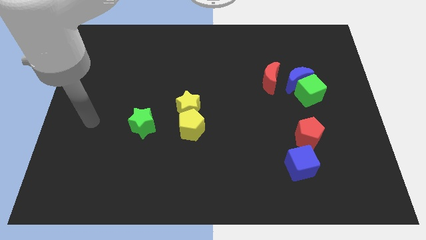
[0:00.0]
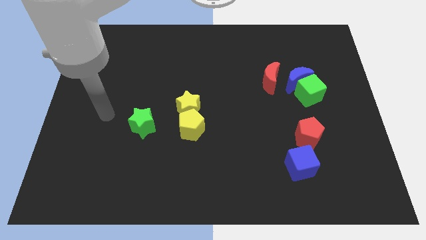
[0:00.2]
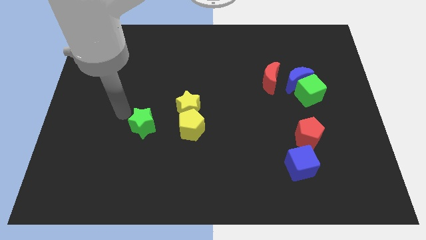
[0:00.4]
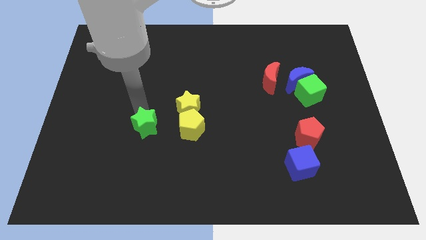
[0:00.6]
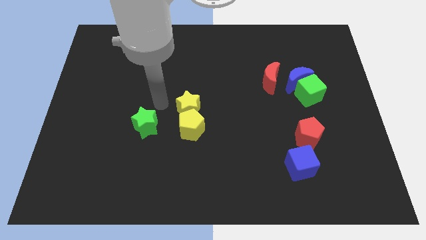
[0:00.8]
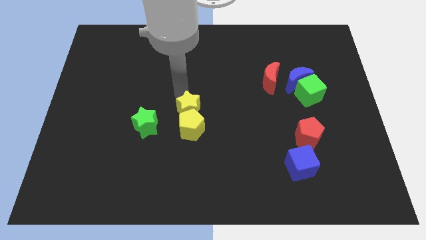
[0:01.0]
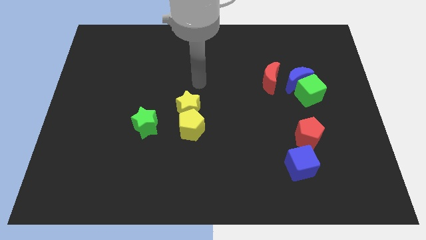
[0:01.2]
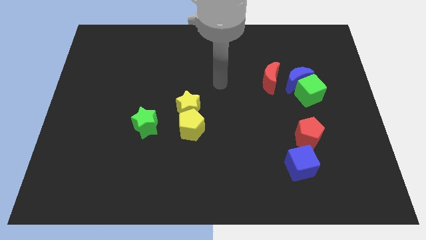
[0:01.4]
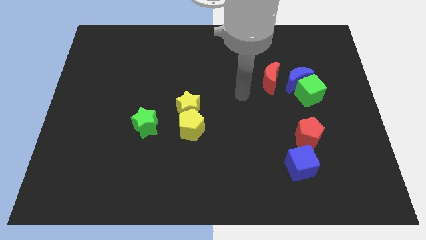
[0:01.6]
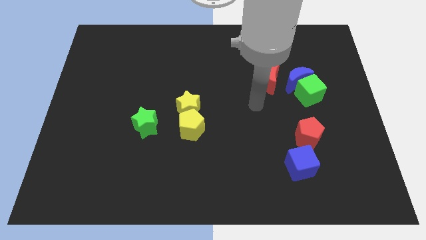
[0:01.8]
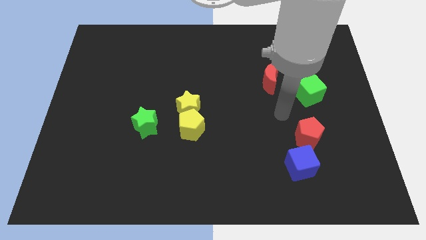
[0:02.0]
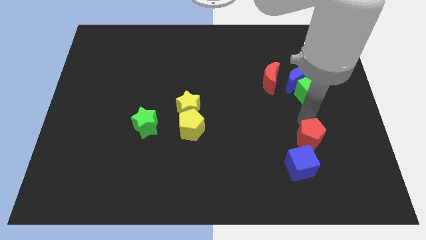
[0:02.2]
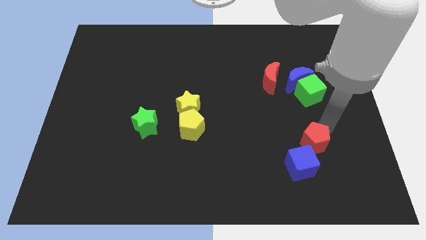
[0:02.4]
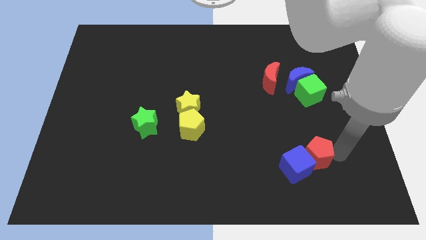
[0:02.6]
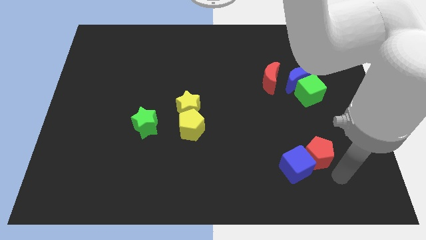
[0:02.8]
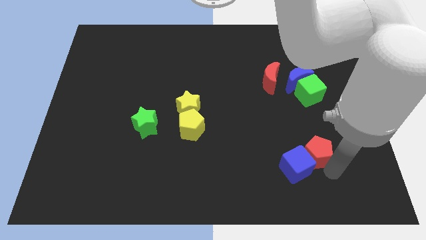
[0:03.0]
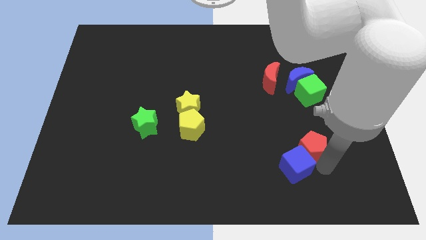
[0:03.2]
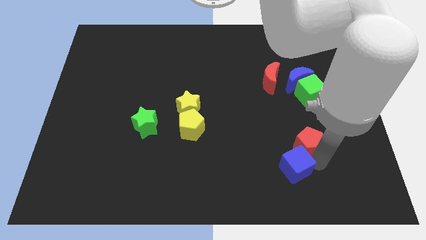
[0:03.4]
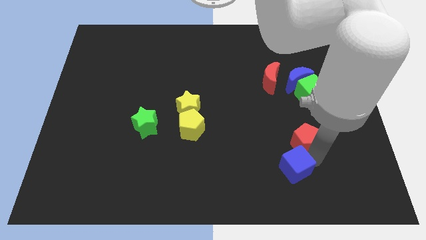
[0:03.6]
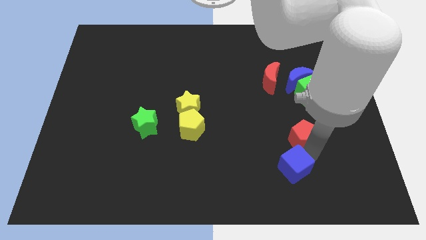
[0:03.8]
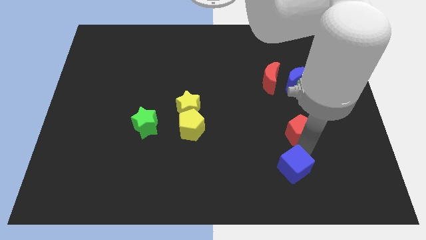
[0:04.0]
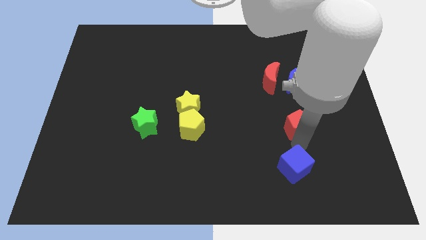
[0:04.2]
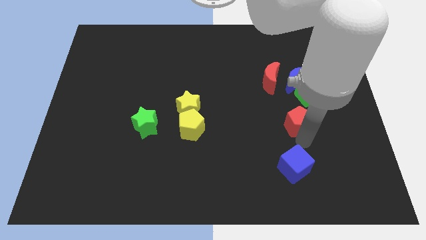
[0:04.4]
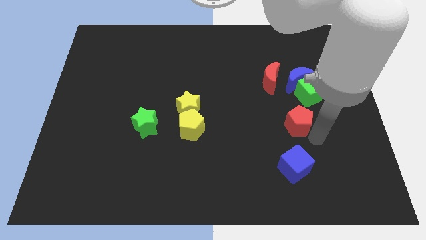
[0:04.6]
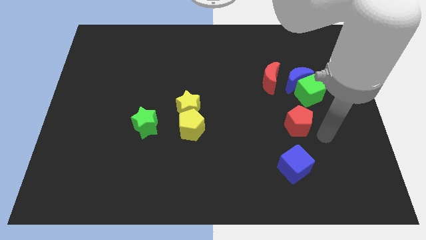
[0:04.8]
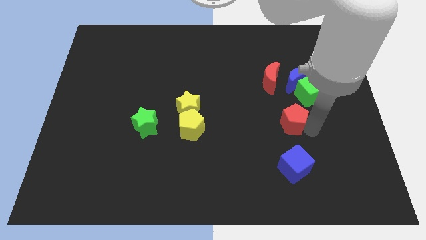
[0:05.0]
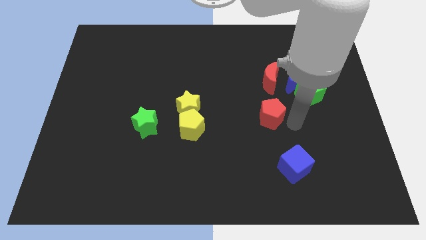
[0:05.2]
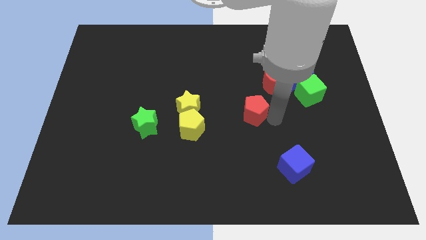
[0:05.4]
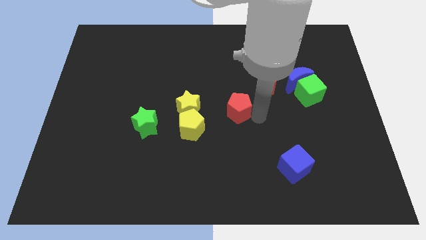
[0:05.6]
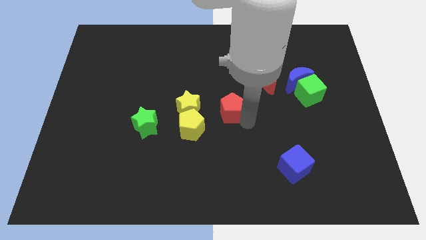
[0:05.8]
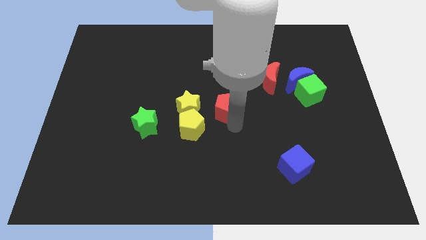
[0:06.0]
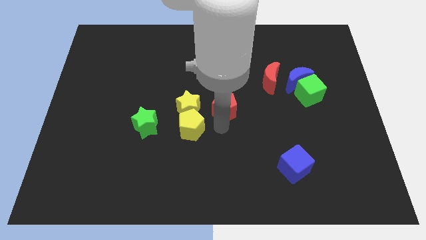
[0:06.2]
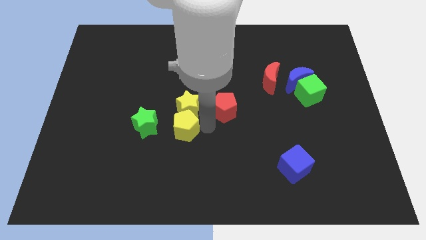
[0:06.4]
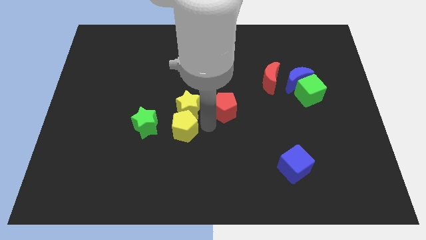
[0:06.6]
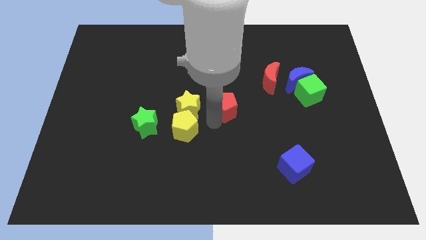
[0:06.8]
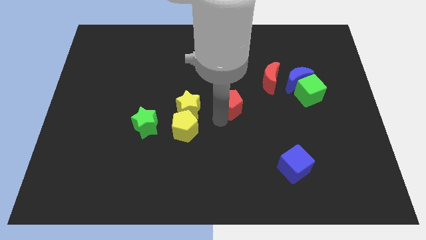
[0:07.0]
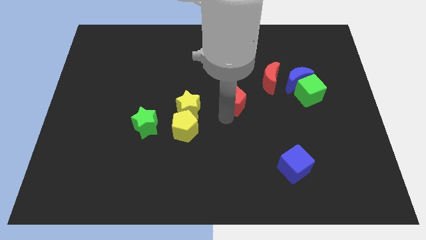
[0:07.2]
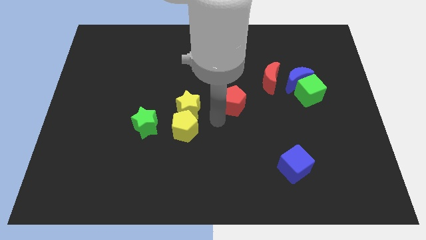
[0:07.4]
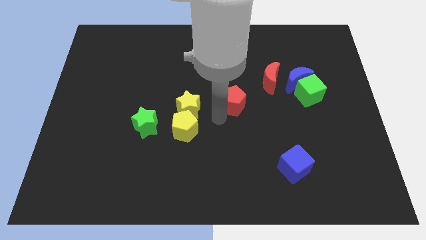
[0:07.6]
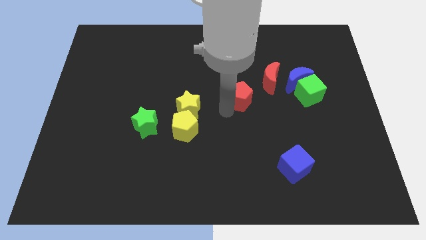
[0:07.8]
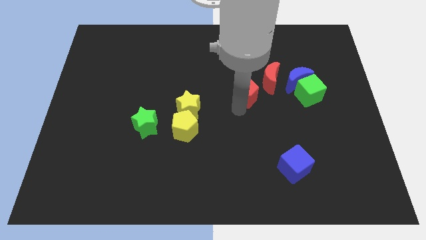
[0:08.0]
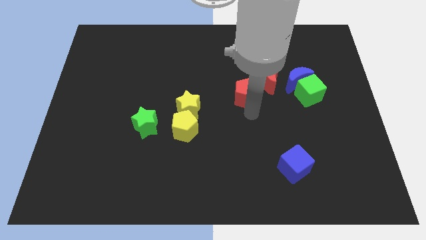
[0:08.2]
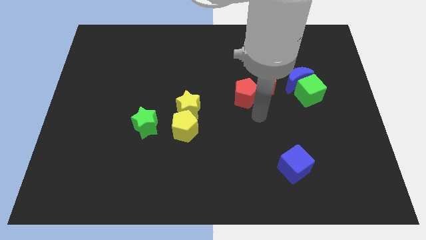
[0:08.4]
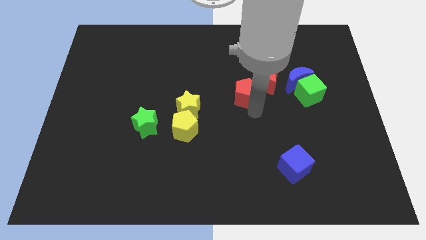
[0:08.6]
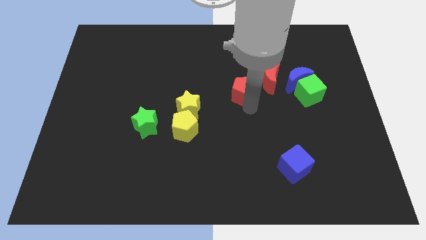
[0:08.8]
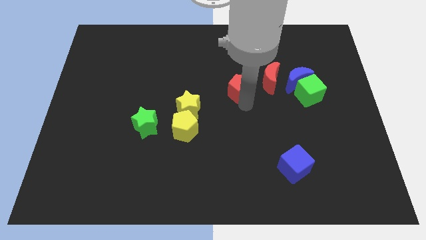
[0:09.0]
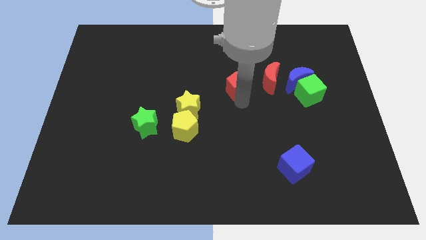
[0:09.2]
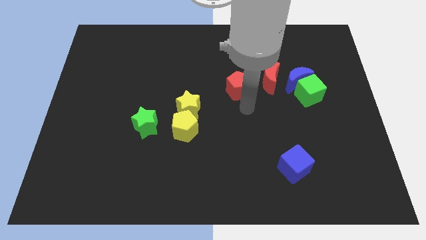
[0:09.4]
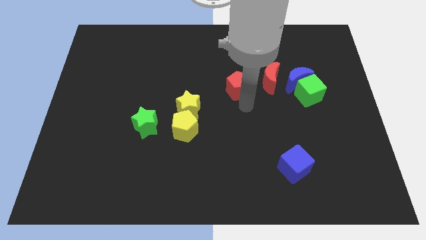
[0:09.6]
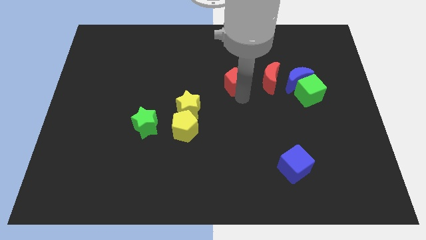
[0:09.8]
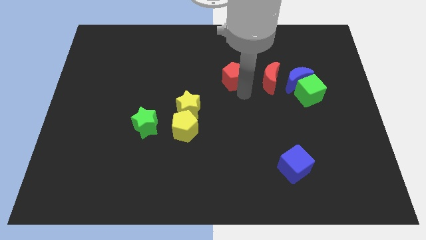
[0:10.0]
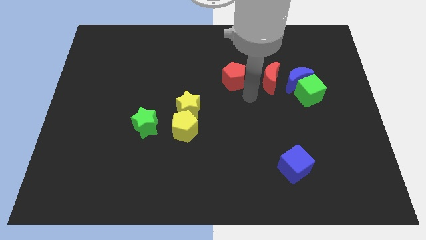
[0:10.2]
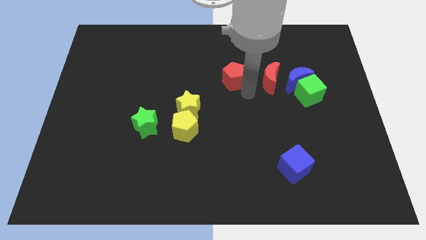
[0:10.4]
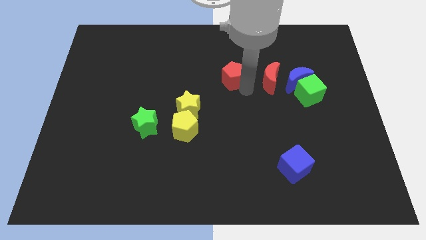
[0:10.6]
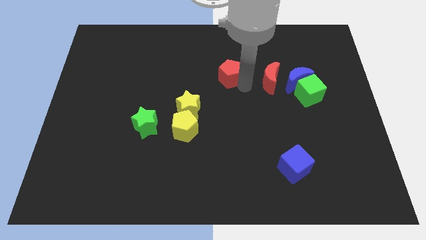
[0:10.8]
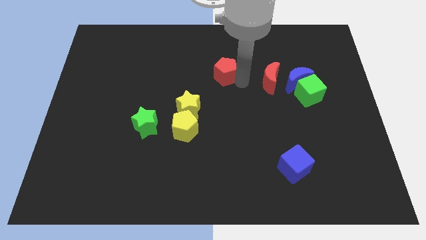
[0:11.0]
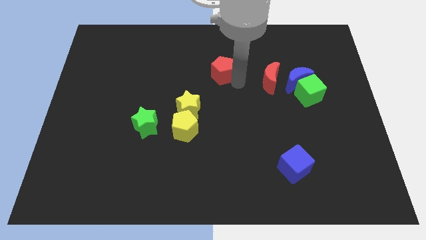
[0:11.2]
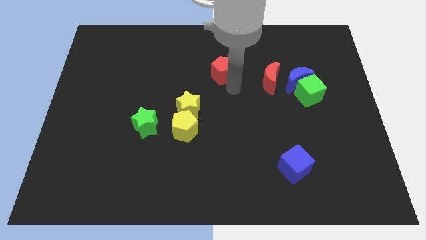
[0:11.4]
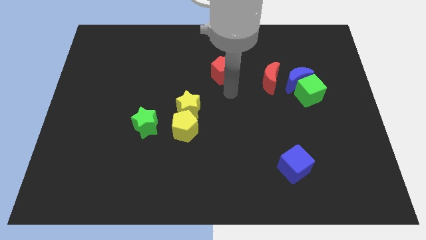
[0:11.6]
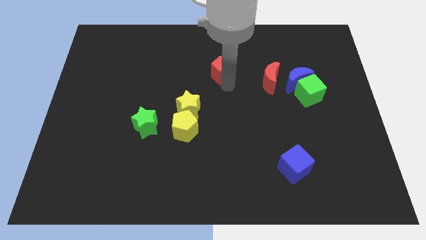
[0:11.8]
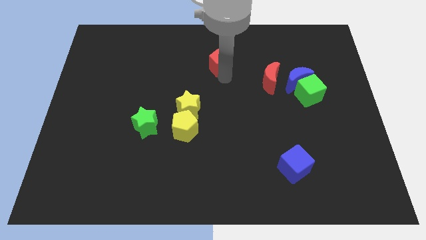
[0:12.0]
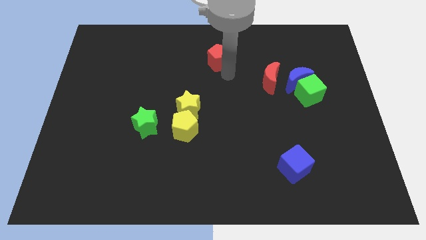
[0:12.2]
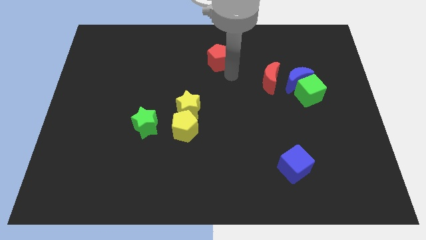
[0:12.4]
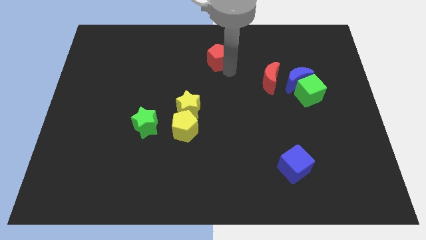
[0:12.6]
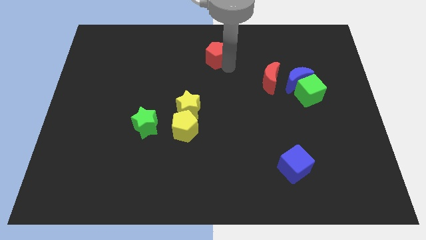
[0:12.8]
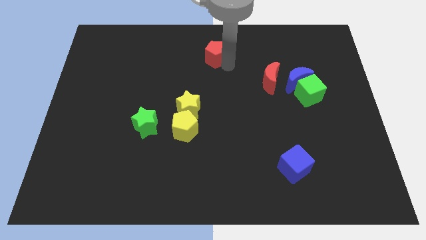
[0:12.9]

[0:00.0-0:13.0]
slide the red pentagon to the top side

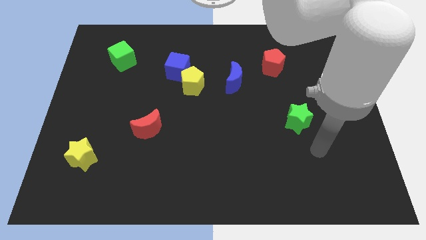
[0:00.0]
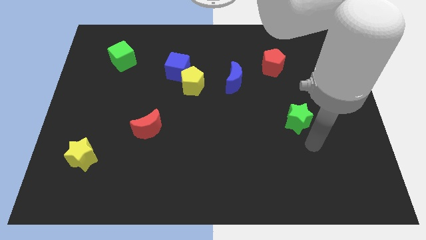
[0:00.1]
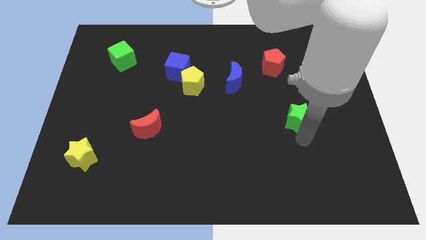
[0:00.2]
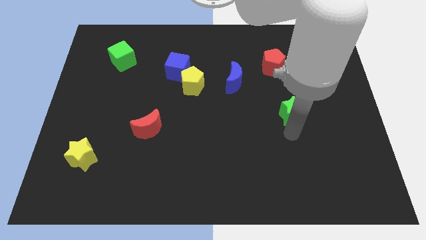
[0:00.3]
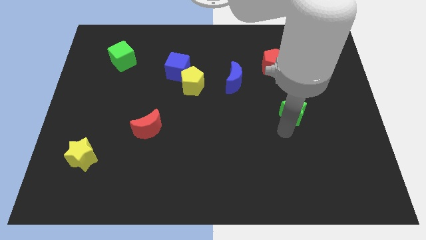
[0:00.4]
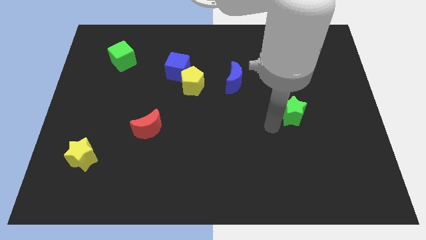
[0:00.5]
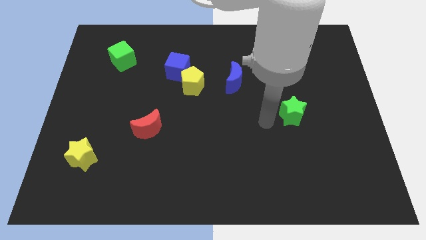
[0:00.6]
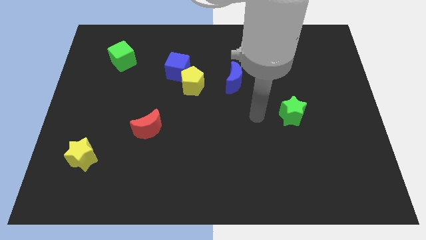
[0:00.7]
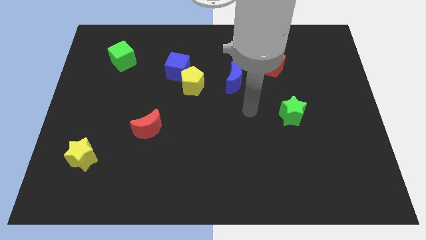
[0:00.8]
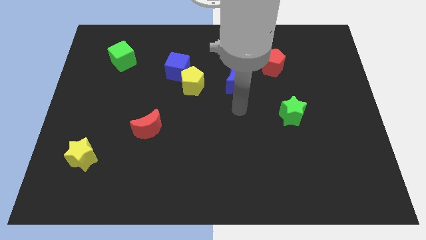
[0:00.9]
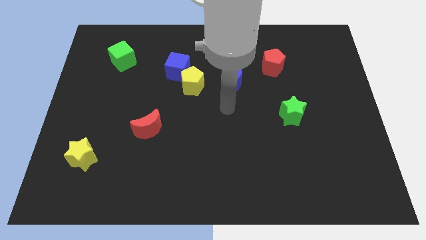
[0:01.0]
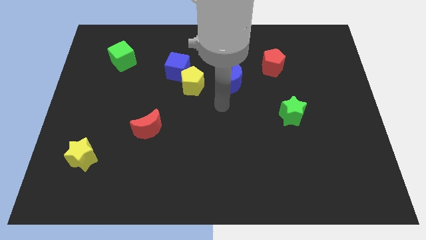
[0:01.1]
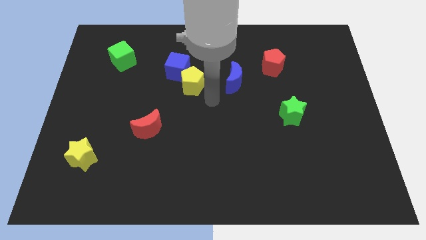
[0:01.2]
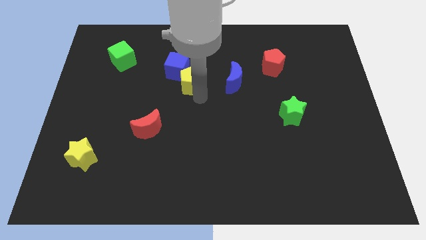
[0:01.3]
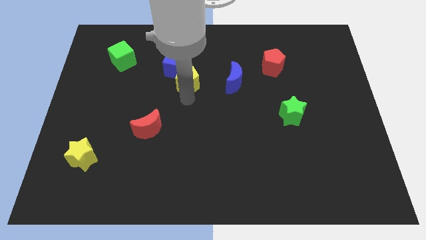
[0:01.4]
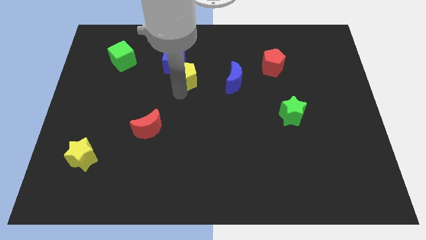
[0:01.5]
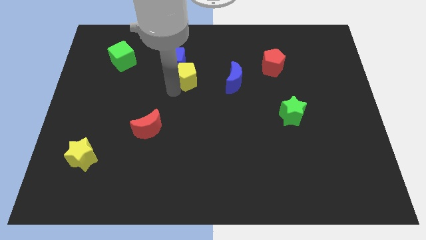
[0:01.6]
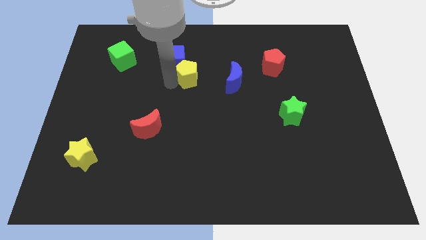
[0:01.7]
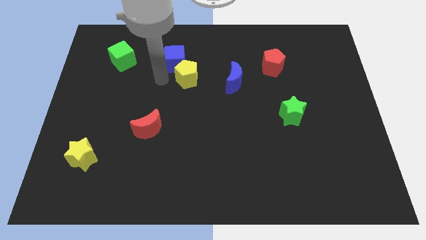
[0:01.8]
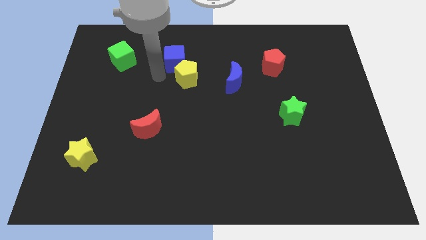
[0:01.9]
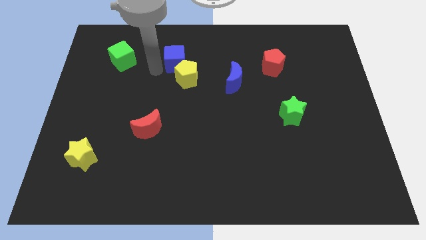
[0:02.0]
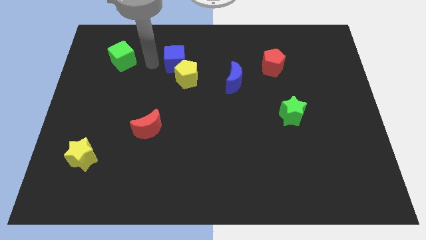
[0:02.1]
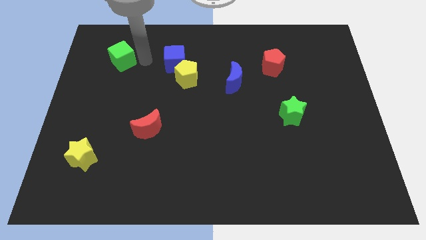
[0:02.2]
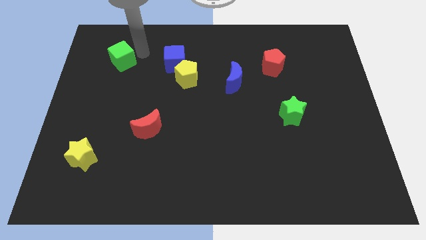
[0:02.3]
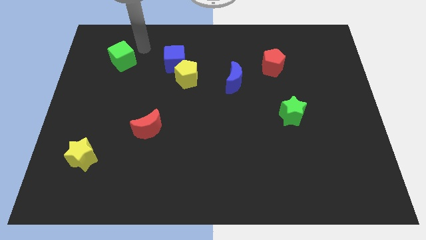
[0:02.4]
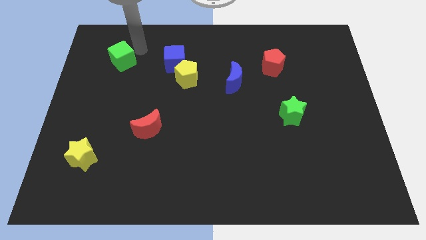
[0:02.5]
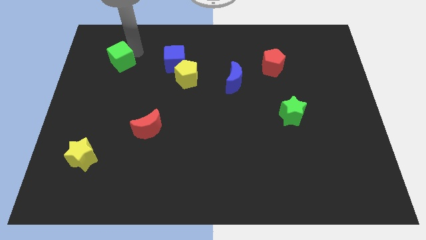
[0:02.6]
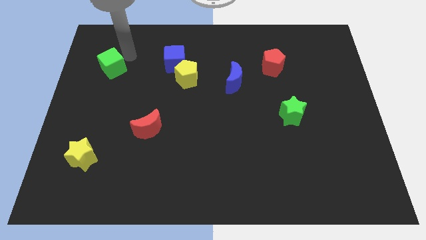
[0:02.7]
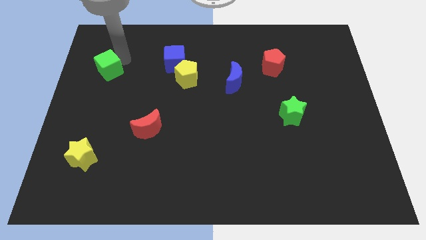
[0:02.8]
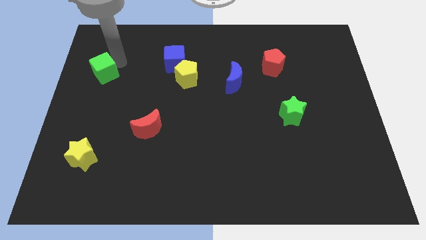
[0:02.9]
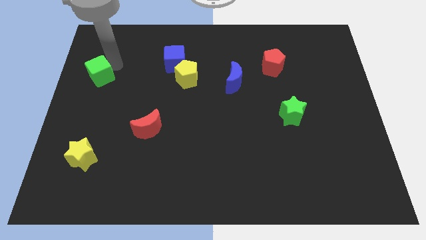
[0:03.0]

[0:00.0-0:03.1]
put the green cube to the left side of the board
